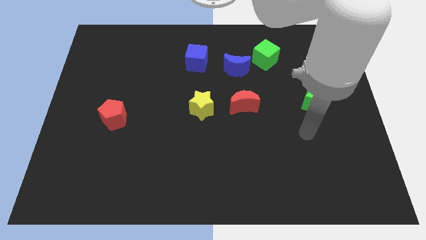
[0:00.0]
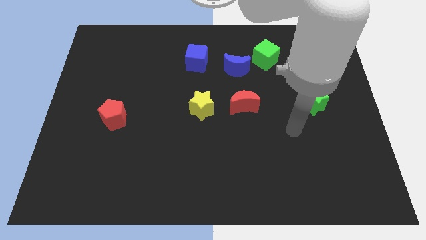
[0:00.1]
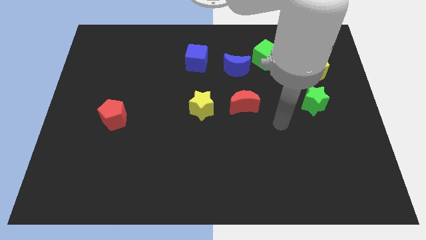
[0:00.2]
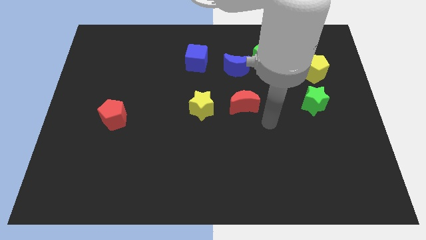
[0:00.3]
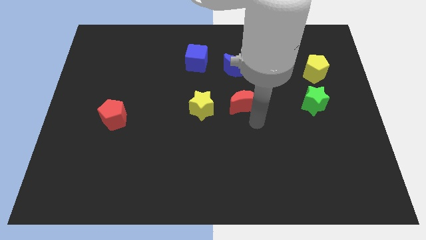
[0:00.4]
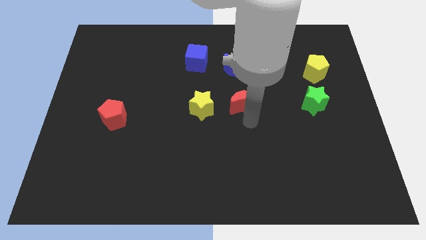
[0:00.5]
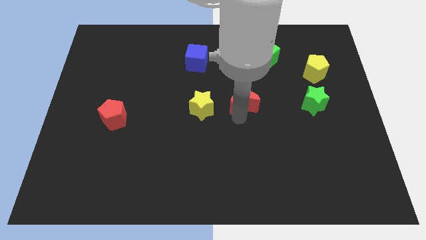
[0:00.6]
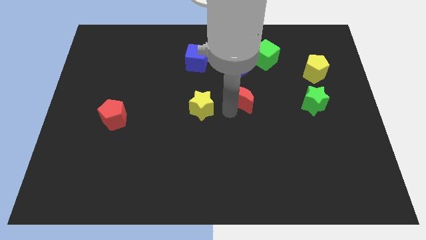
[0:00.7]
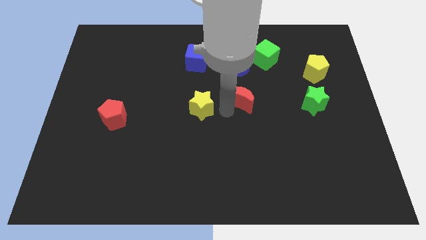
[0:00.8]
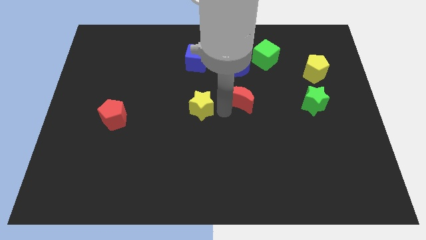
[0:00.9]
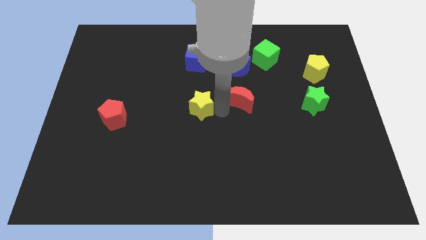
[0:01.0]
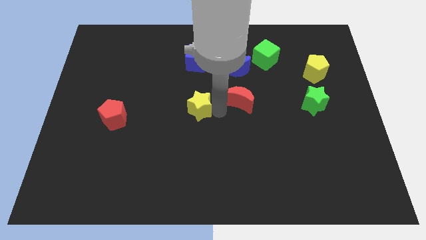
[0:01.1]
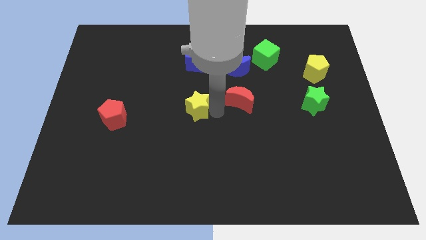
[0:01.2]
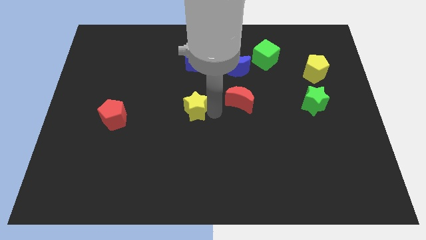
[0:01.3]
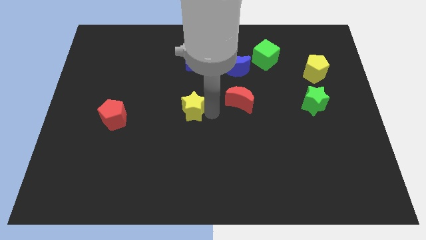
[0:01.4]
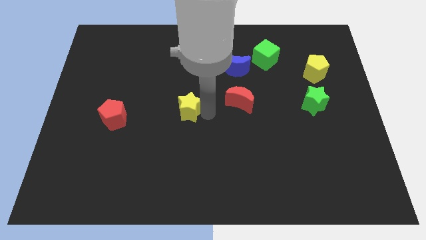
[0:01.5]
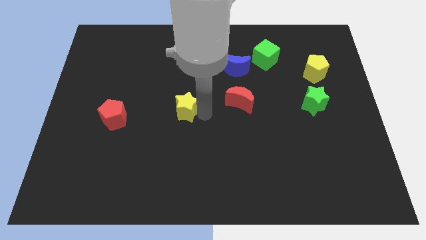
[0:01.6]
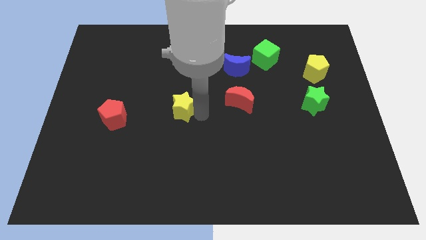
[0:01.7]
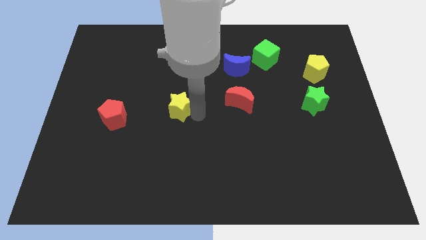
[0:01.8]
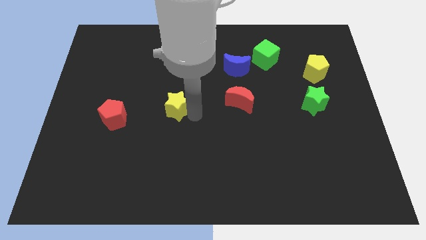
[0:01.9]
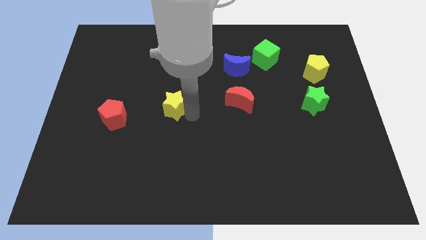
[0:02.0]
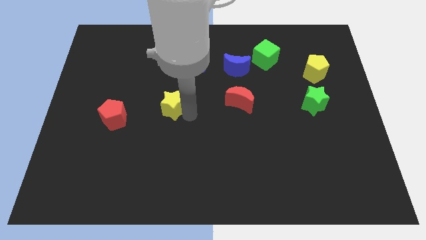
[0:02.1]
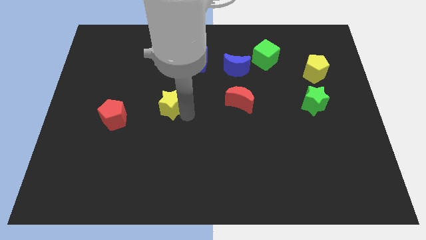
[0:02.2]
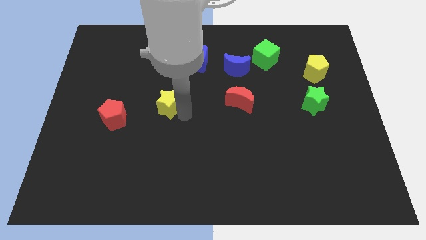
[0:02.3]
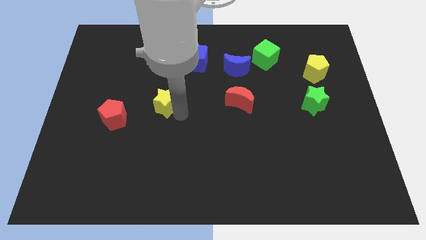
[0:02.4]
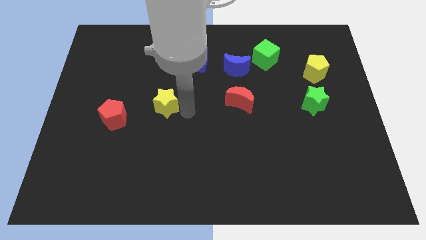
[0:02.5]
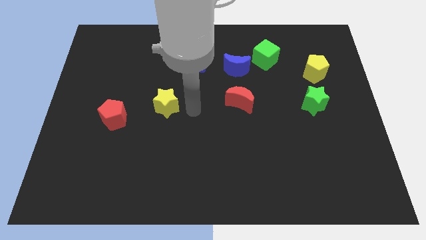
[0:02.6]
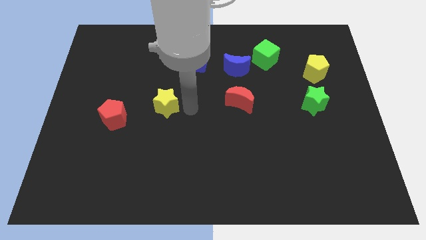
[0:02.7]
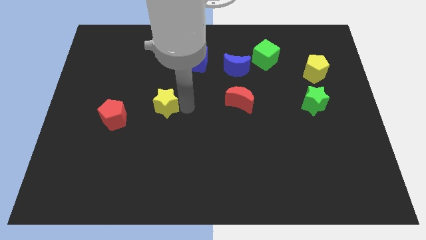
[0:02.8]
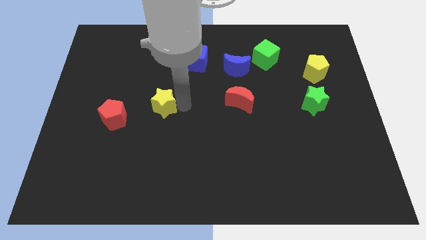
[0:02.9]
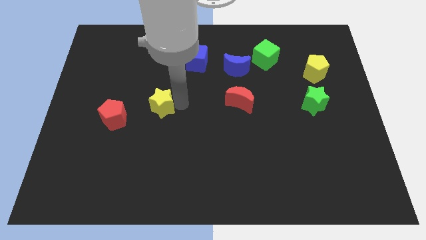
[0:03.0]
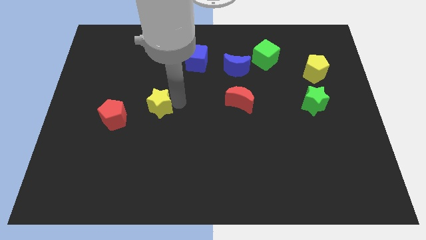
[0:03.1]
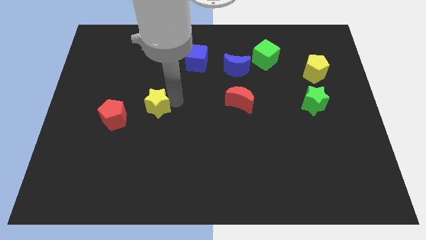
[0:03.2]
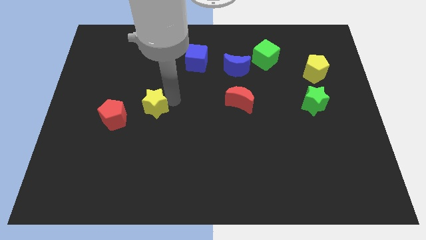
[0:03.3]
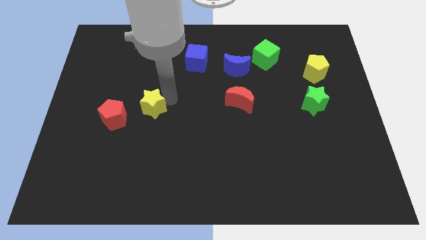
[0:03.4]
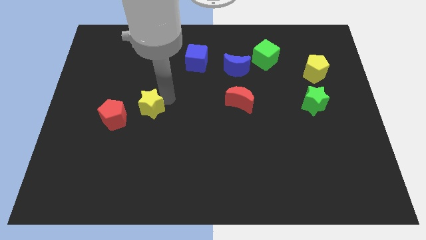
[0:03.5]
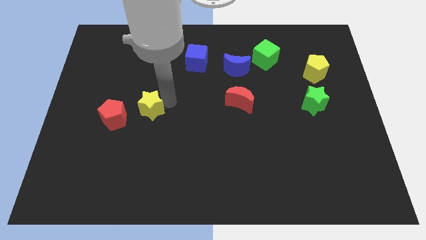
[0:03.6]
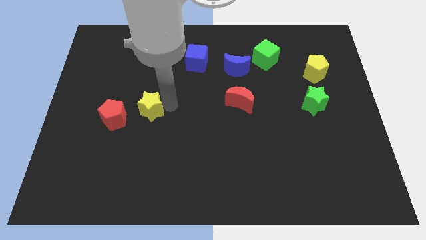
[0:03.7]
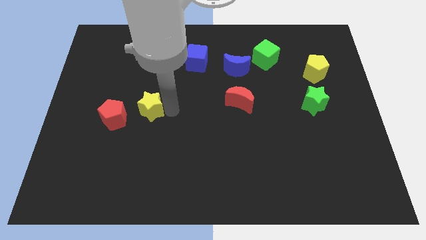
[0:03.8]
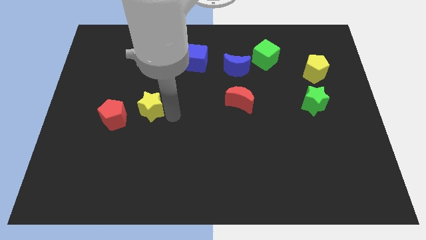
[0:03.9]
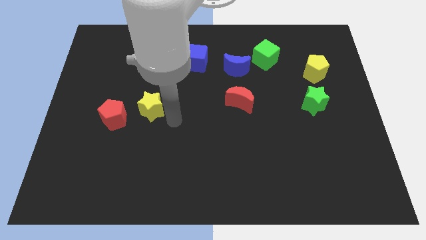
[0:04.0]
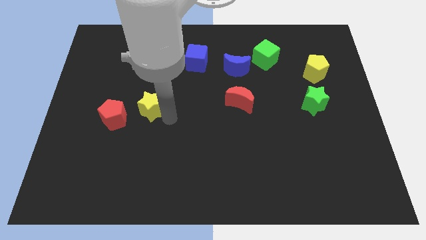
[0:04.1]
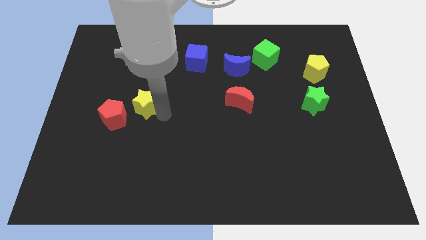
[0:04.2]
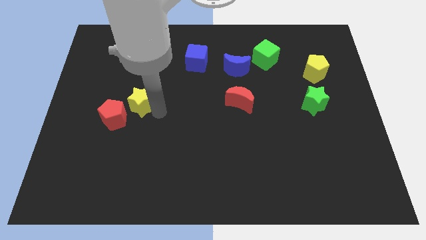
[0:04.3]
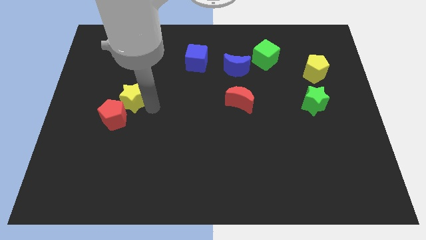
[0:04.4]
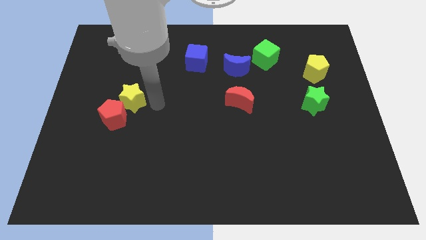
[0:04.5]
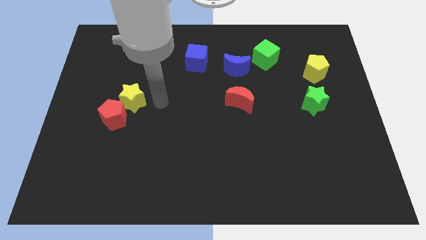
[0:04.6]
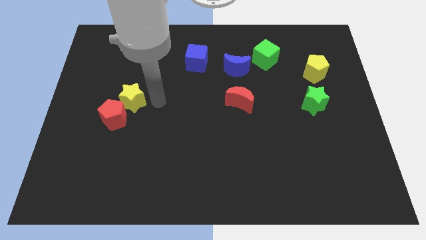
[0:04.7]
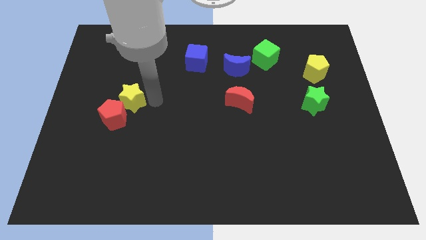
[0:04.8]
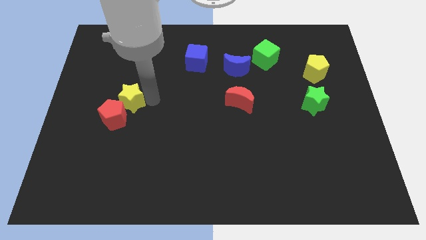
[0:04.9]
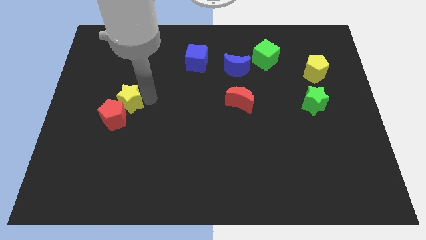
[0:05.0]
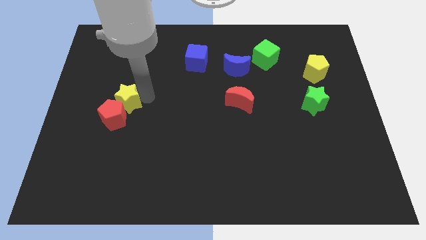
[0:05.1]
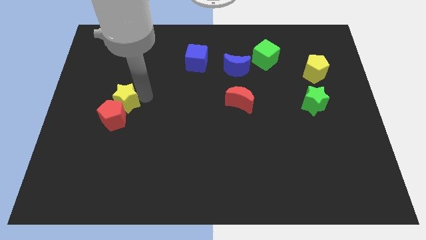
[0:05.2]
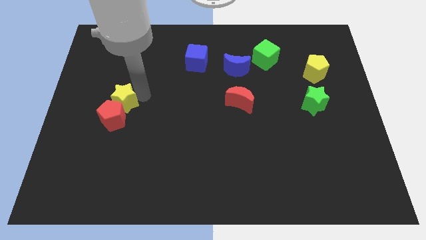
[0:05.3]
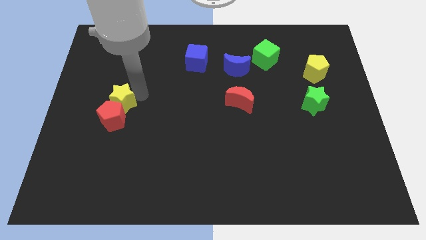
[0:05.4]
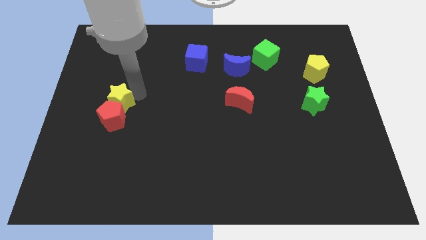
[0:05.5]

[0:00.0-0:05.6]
slide the yellow star diagonally up and to the left of the red pentagon
